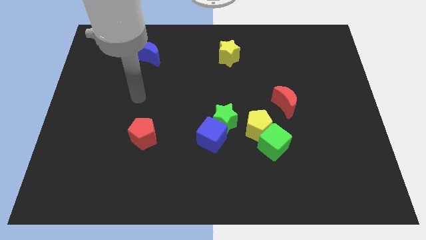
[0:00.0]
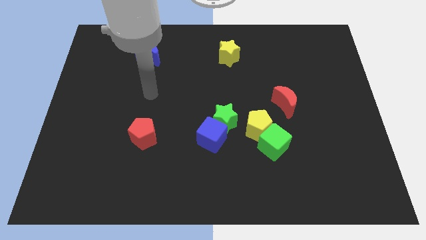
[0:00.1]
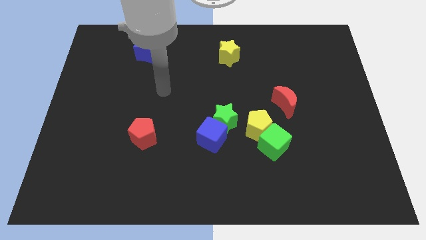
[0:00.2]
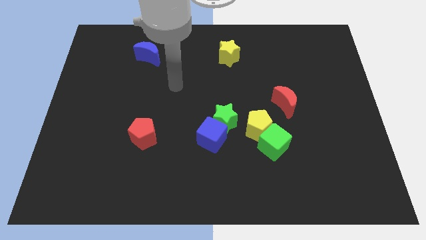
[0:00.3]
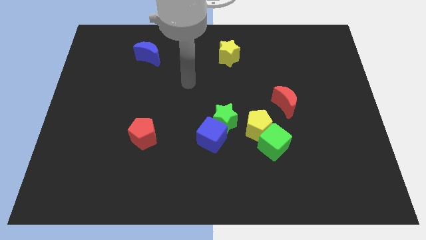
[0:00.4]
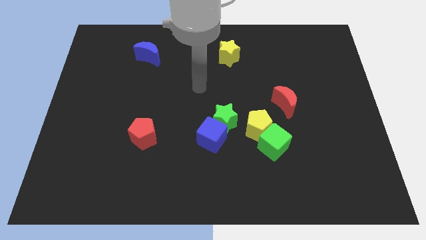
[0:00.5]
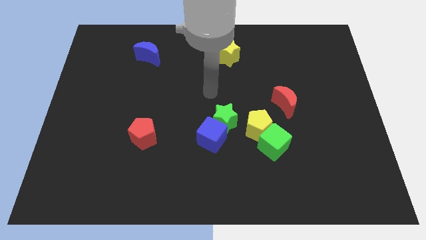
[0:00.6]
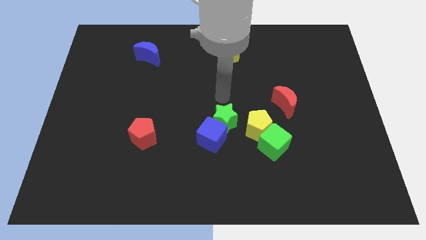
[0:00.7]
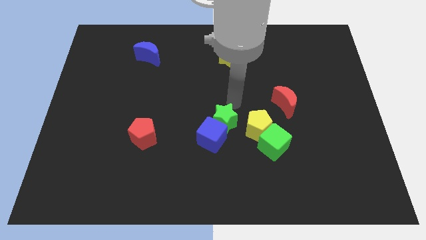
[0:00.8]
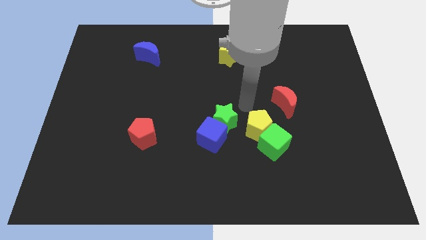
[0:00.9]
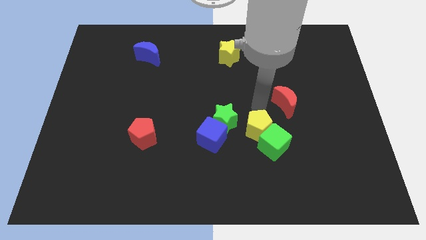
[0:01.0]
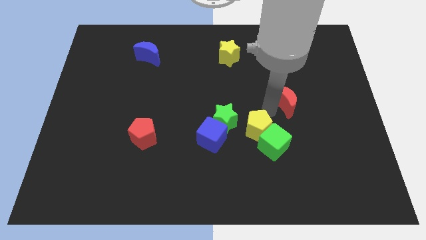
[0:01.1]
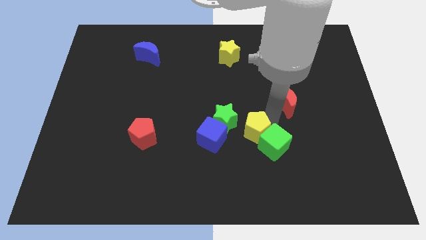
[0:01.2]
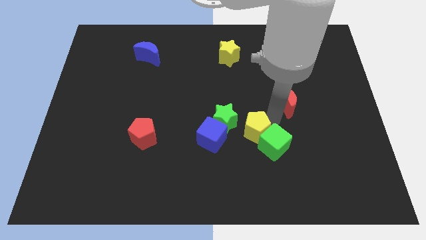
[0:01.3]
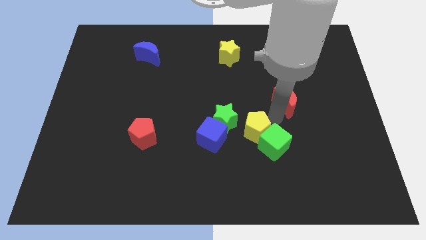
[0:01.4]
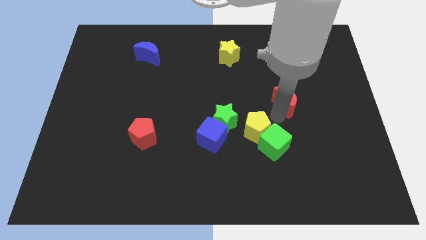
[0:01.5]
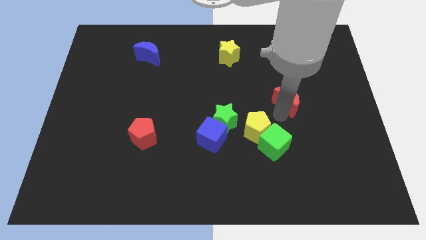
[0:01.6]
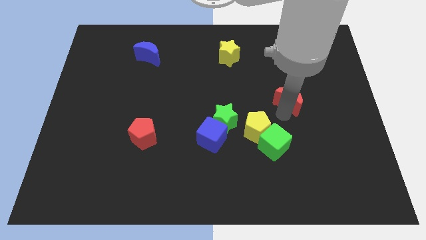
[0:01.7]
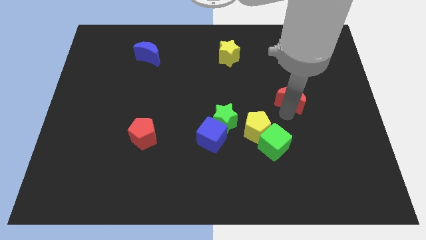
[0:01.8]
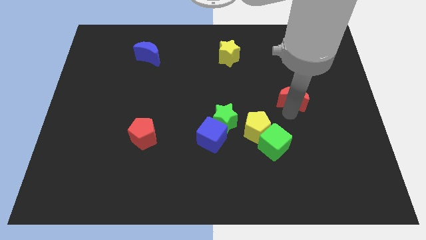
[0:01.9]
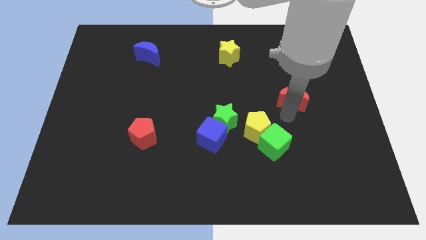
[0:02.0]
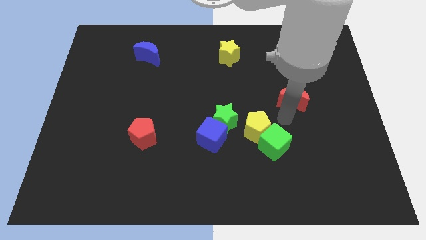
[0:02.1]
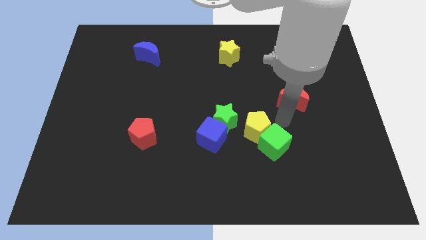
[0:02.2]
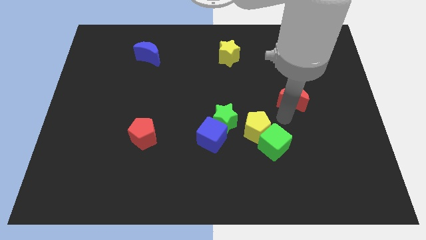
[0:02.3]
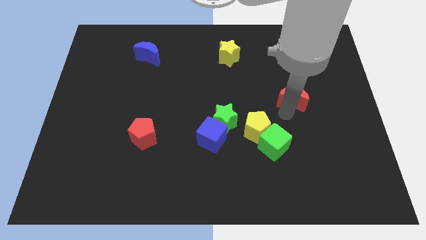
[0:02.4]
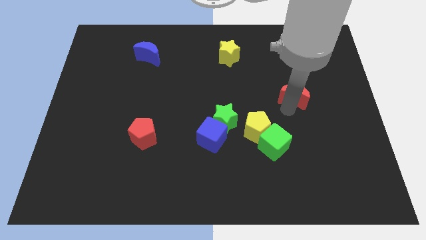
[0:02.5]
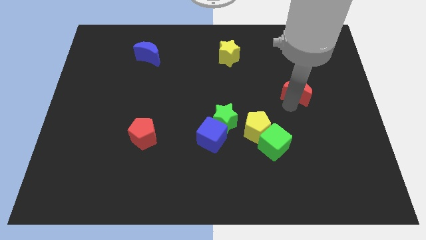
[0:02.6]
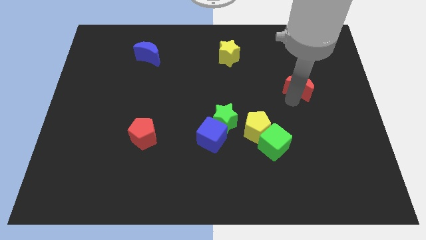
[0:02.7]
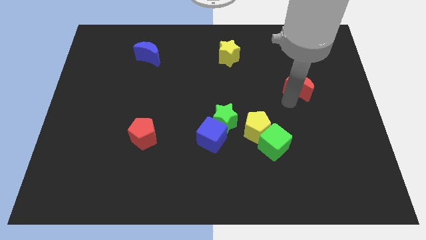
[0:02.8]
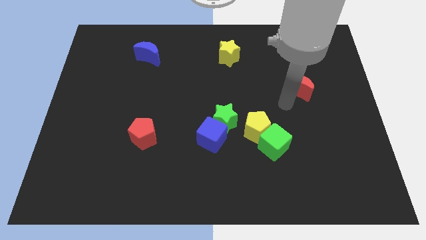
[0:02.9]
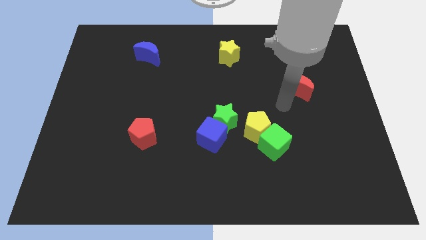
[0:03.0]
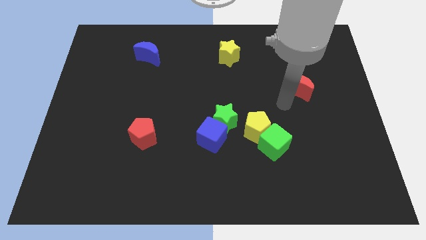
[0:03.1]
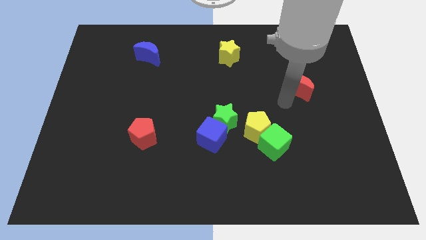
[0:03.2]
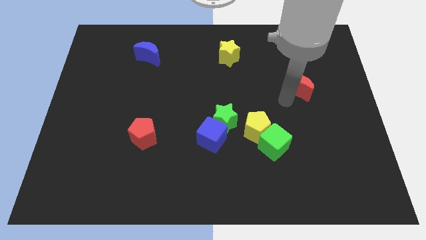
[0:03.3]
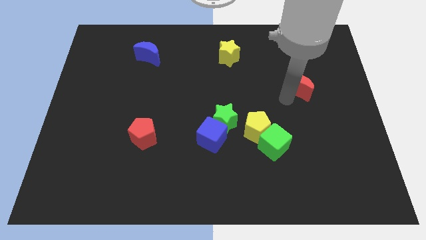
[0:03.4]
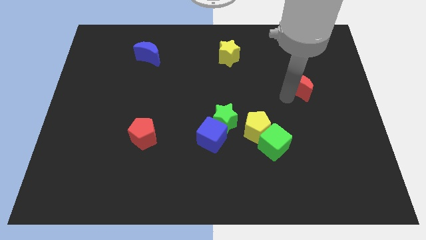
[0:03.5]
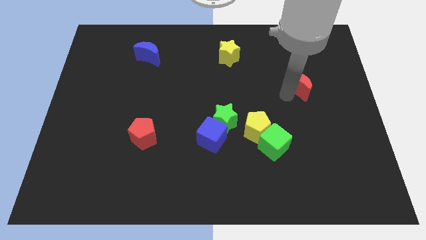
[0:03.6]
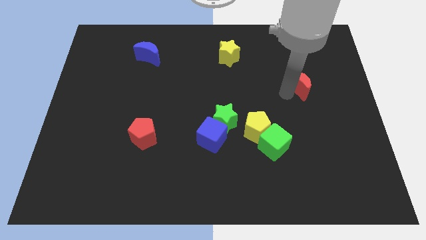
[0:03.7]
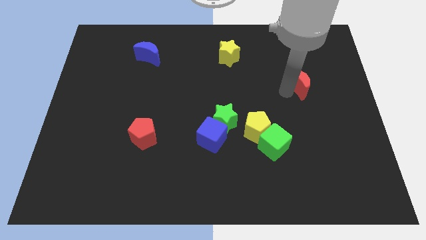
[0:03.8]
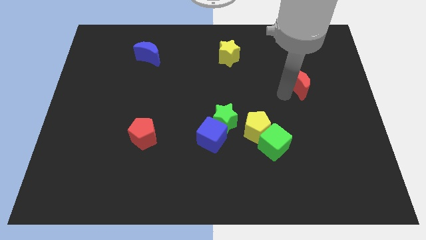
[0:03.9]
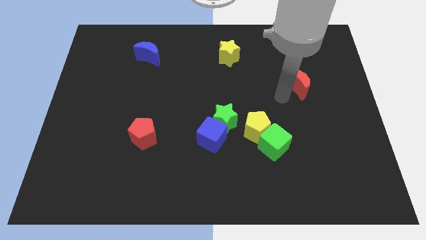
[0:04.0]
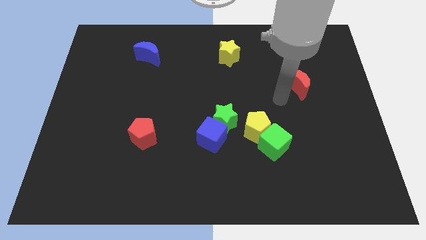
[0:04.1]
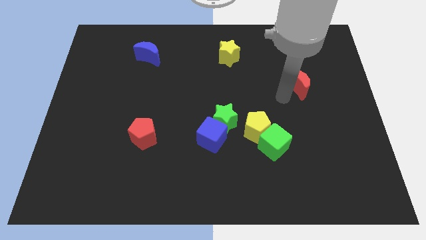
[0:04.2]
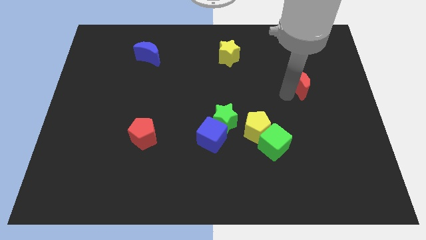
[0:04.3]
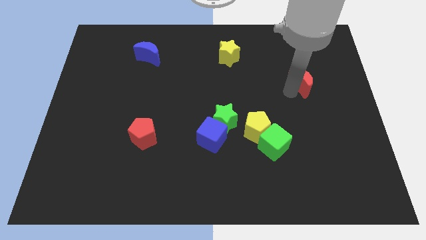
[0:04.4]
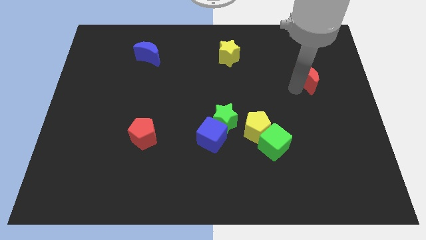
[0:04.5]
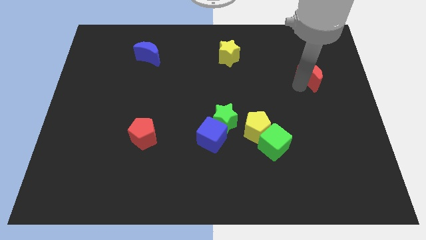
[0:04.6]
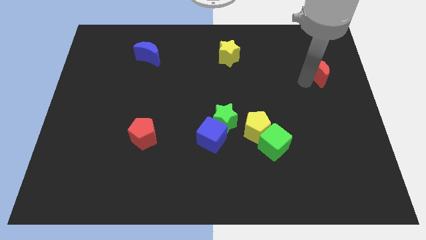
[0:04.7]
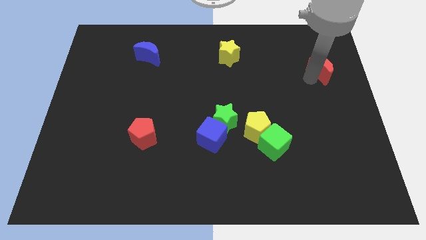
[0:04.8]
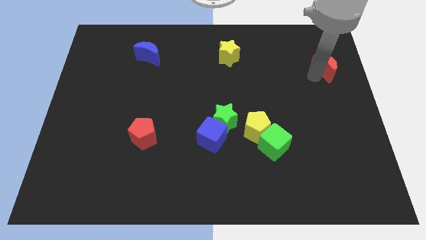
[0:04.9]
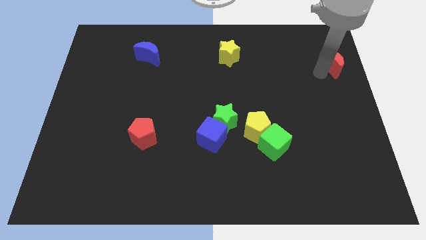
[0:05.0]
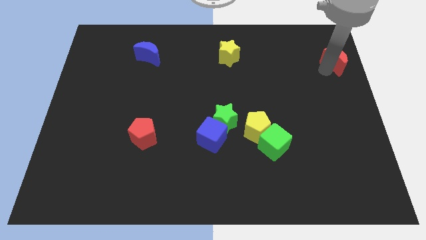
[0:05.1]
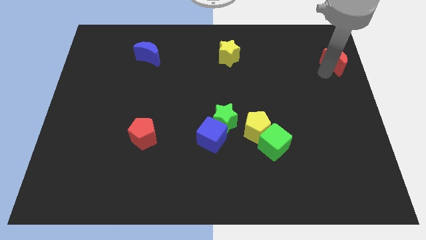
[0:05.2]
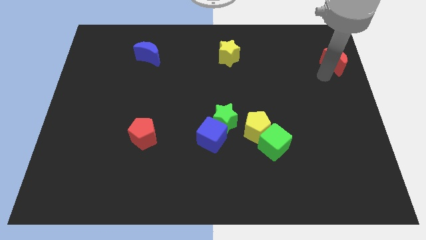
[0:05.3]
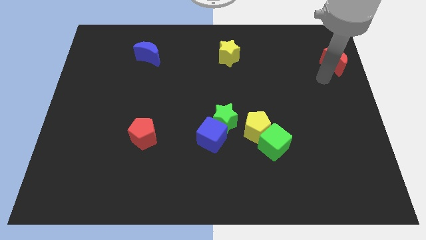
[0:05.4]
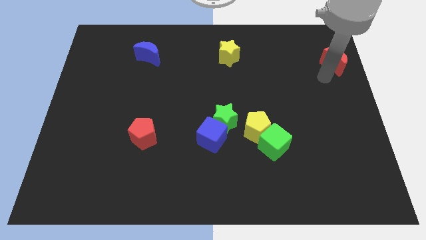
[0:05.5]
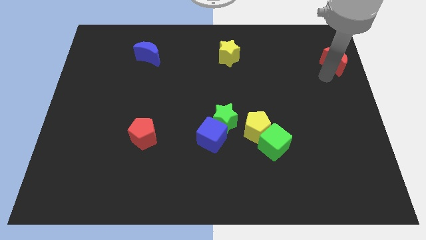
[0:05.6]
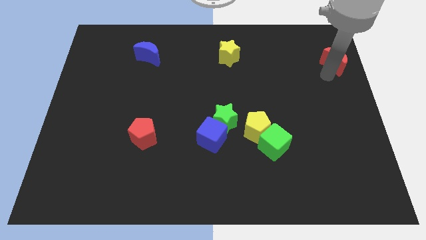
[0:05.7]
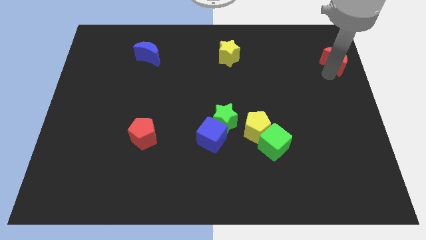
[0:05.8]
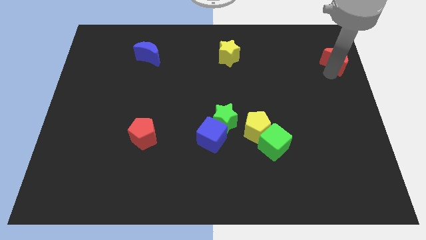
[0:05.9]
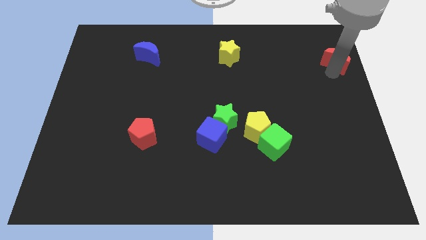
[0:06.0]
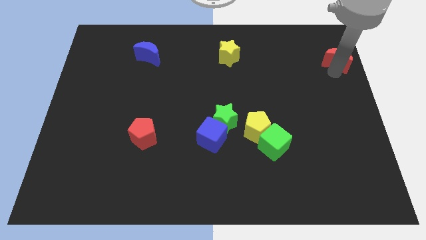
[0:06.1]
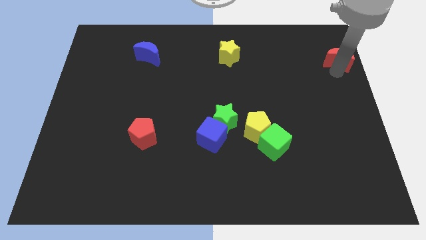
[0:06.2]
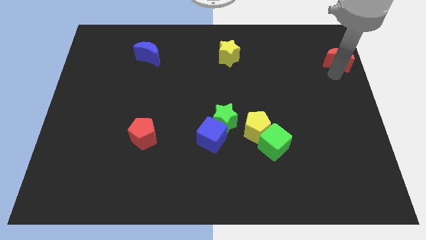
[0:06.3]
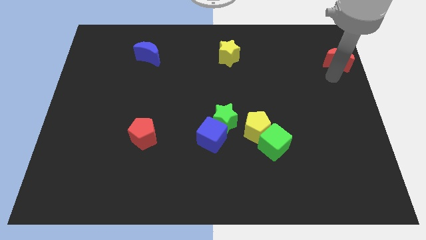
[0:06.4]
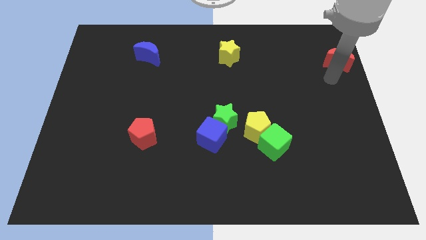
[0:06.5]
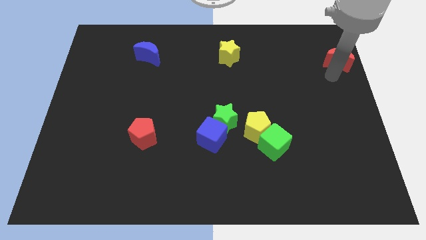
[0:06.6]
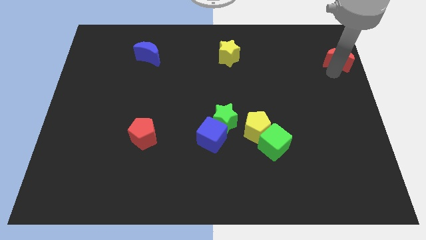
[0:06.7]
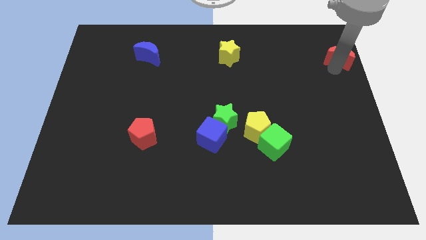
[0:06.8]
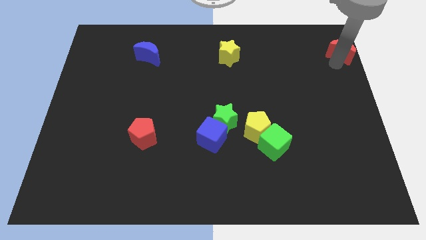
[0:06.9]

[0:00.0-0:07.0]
slide the red moon to the top right
